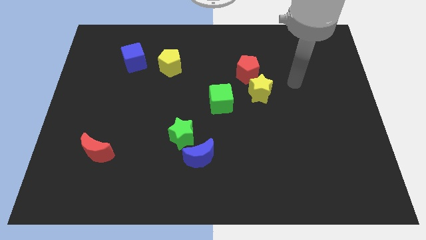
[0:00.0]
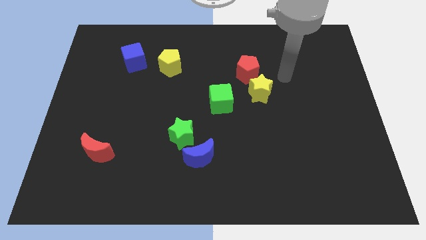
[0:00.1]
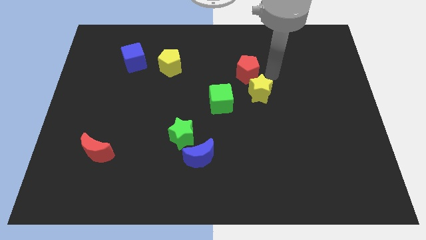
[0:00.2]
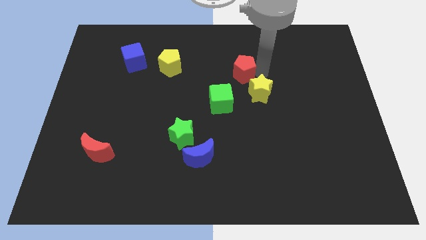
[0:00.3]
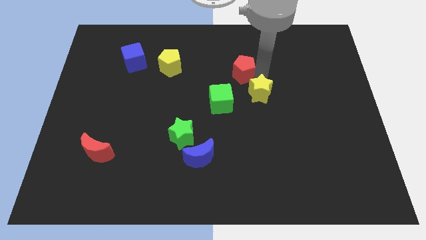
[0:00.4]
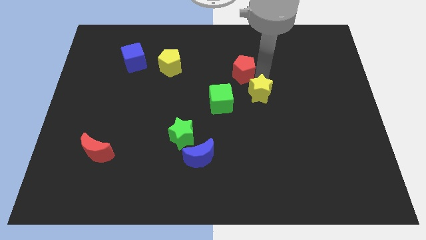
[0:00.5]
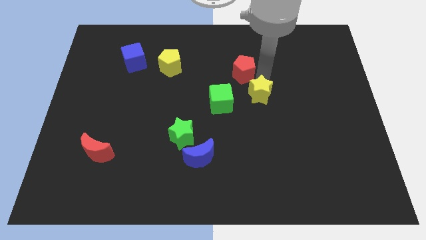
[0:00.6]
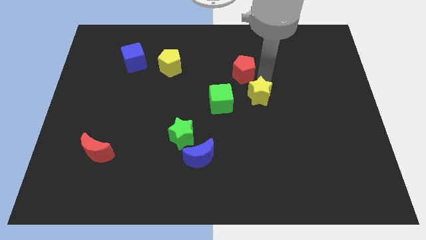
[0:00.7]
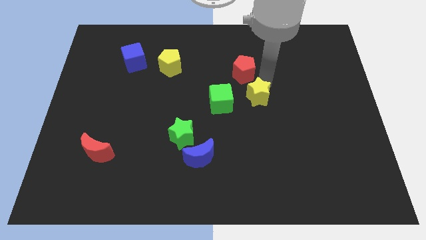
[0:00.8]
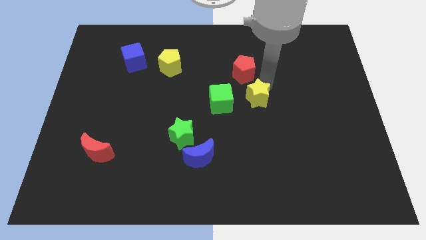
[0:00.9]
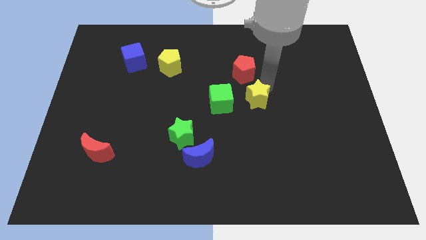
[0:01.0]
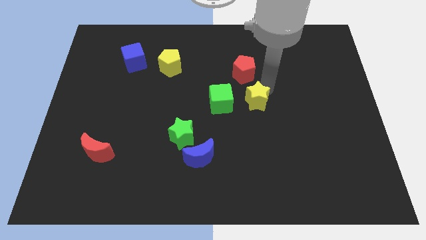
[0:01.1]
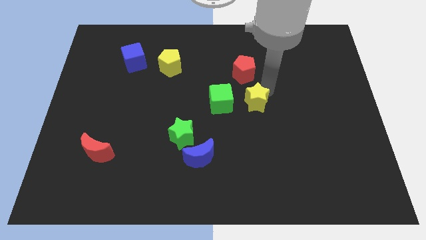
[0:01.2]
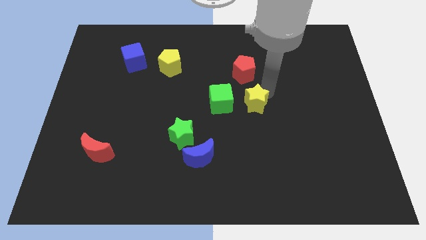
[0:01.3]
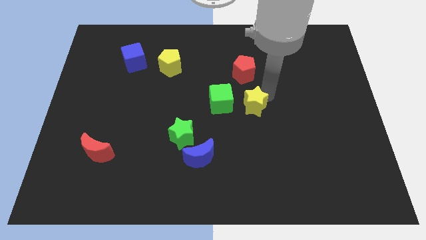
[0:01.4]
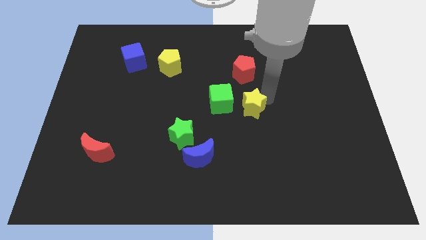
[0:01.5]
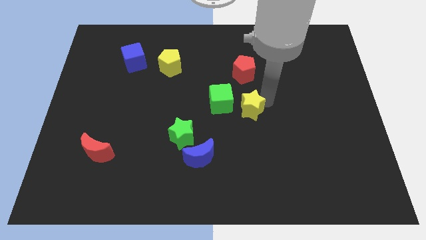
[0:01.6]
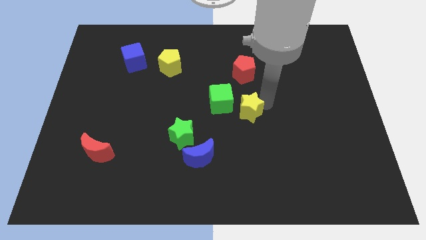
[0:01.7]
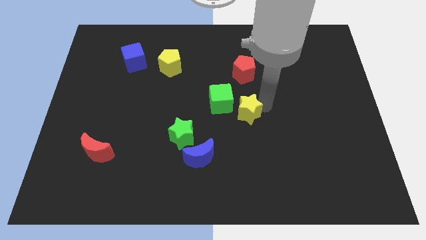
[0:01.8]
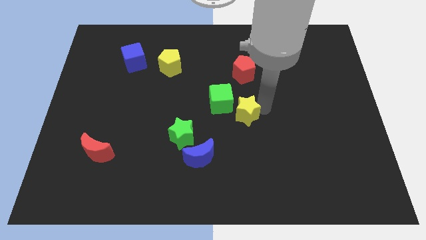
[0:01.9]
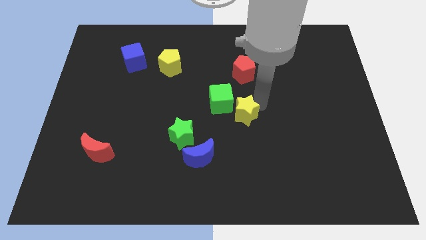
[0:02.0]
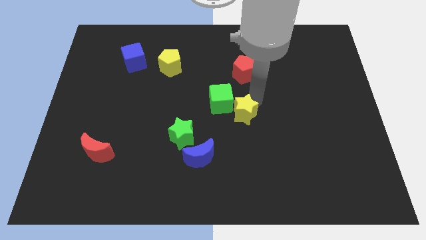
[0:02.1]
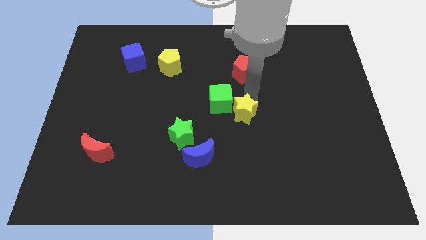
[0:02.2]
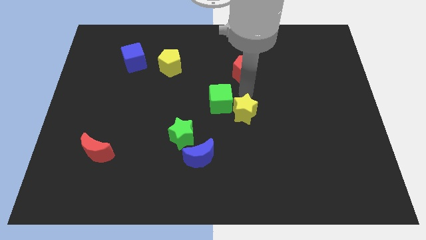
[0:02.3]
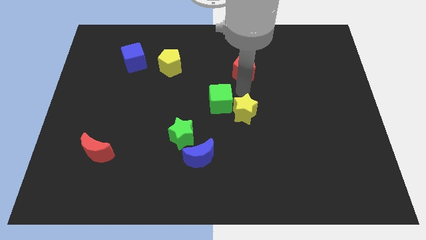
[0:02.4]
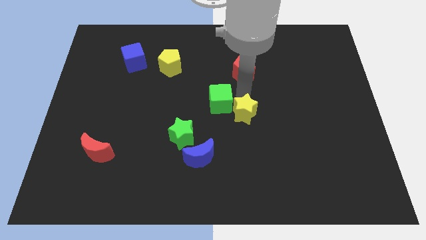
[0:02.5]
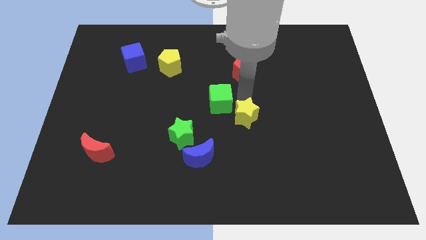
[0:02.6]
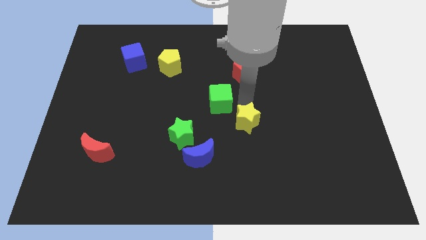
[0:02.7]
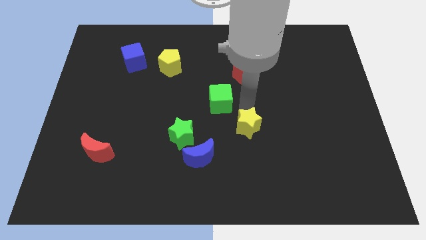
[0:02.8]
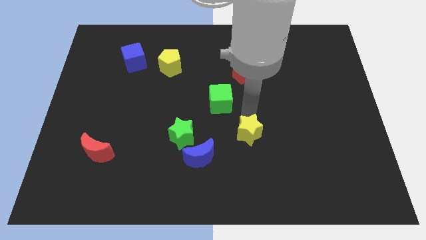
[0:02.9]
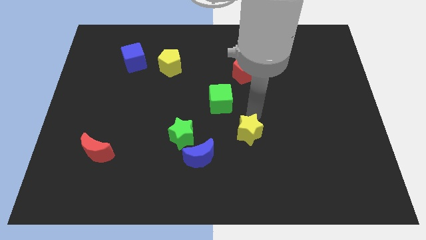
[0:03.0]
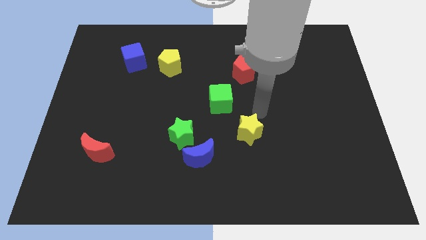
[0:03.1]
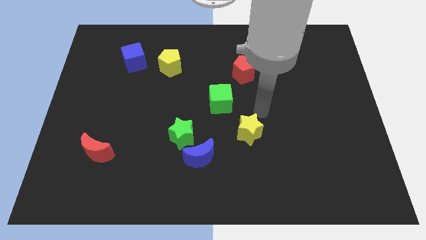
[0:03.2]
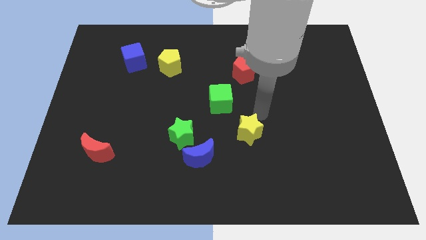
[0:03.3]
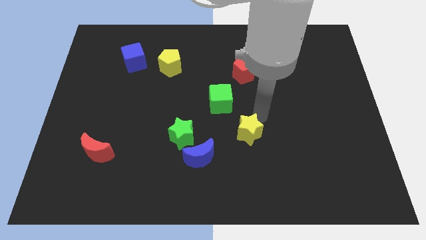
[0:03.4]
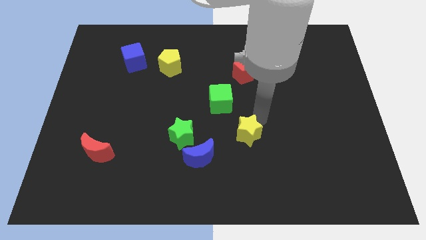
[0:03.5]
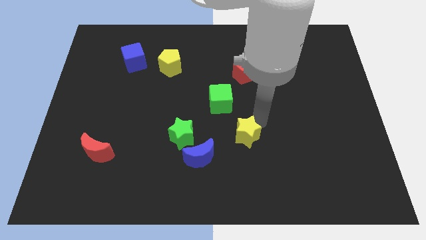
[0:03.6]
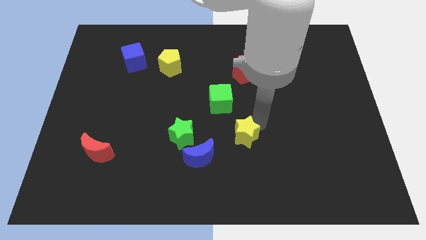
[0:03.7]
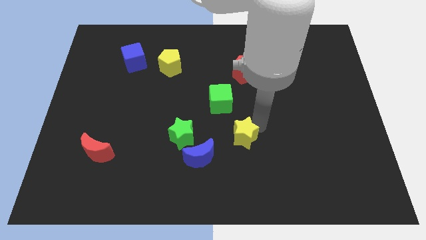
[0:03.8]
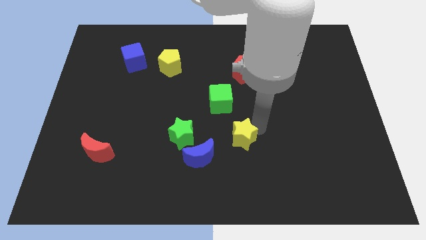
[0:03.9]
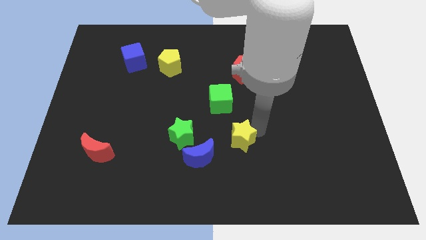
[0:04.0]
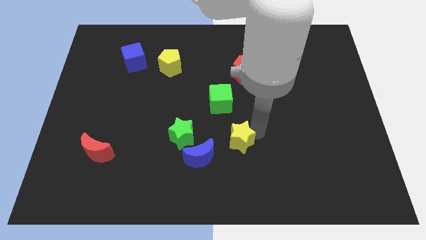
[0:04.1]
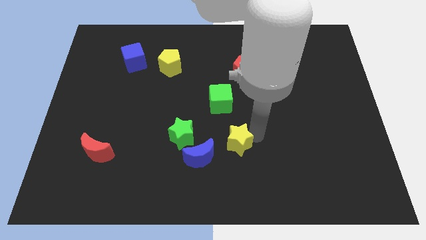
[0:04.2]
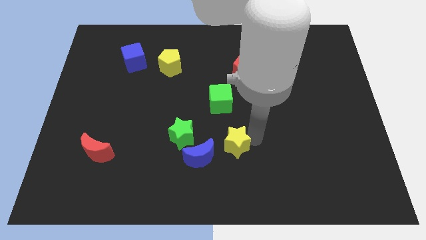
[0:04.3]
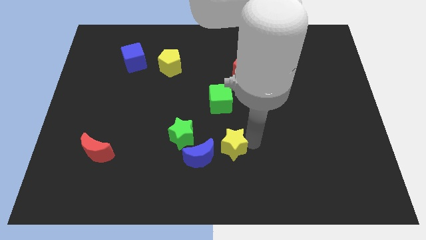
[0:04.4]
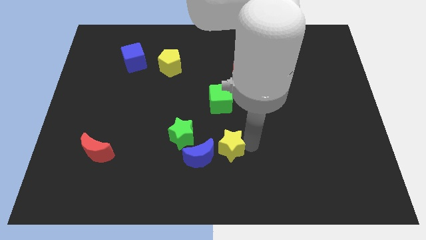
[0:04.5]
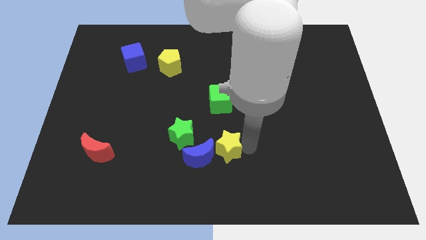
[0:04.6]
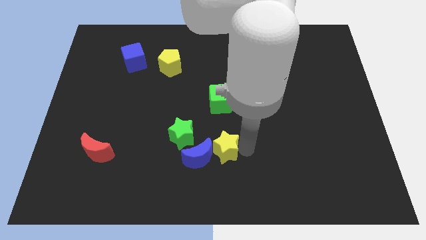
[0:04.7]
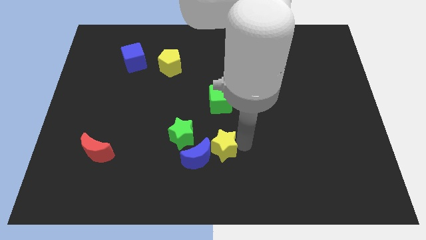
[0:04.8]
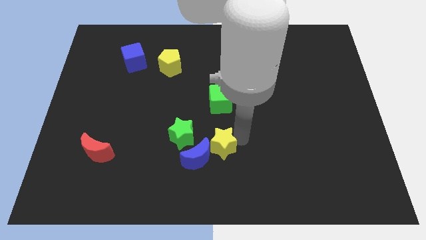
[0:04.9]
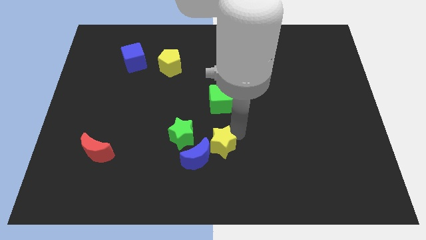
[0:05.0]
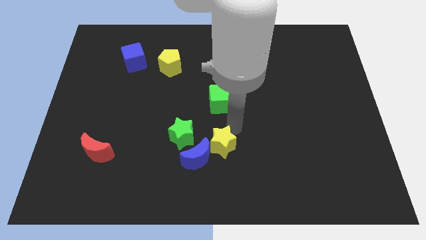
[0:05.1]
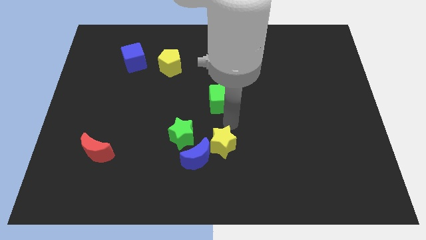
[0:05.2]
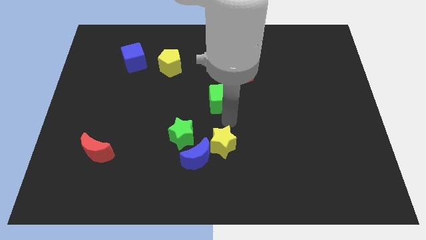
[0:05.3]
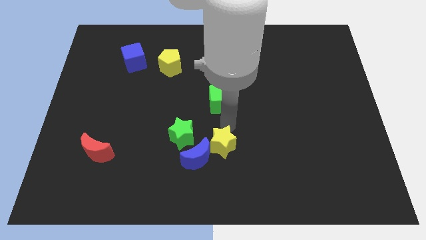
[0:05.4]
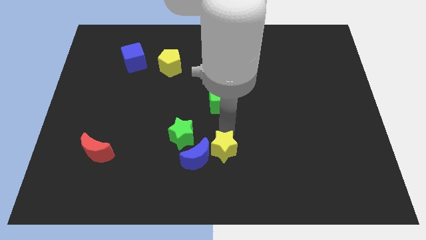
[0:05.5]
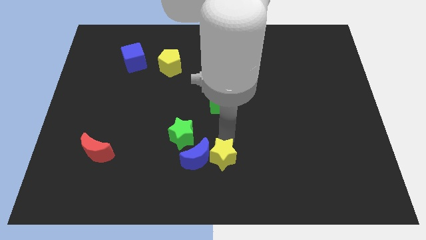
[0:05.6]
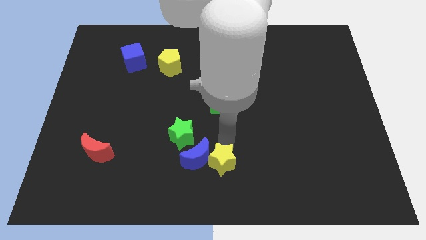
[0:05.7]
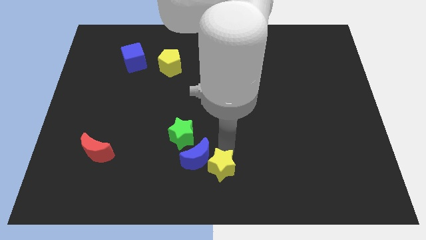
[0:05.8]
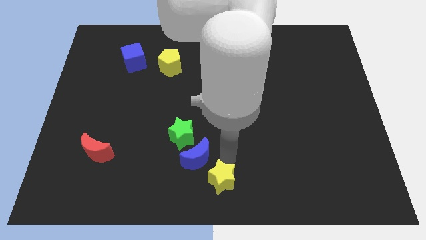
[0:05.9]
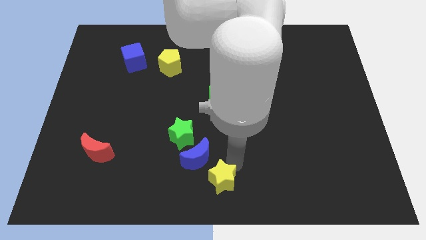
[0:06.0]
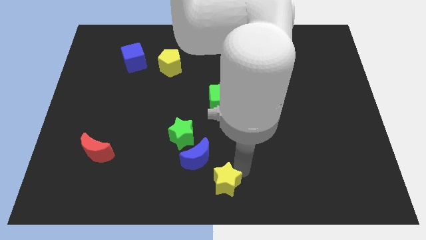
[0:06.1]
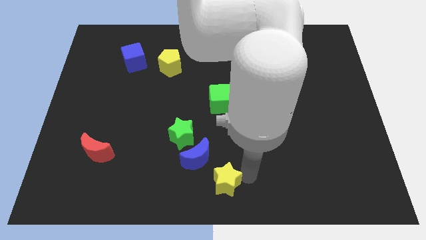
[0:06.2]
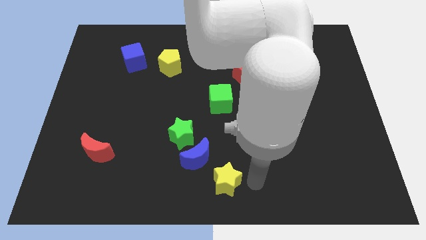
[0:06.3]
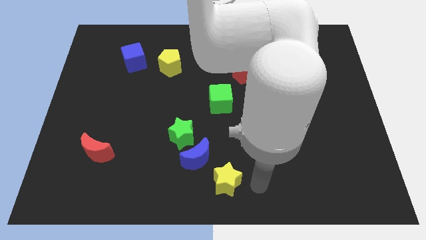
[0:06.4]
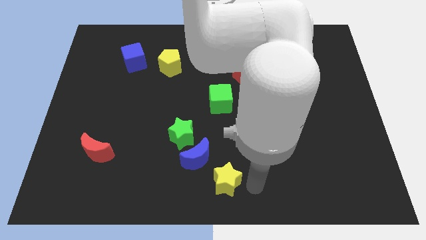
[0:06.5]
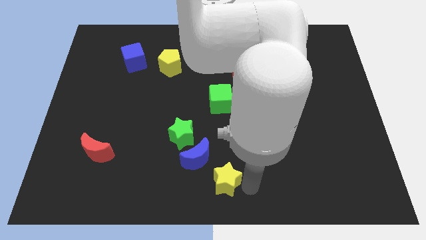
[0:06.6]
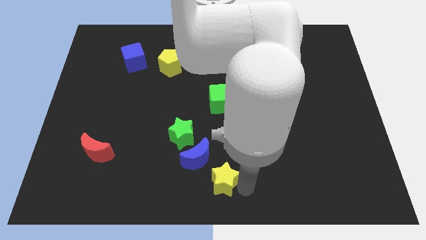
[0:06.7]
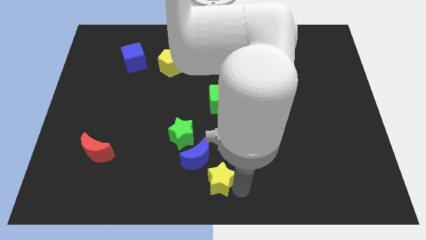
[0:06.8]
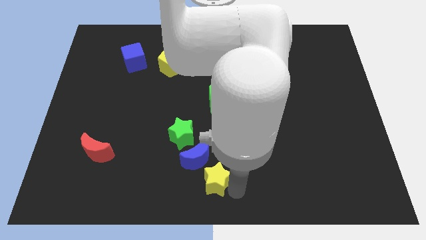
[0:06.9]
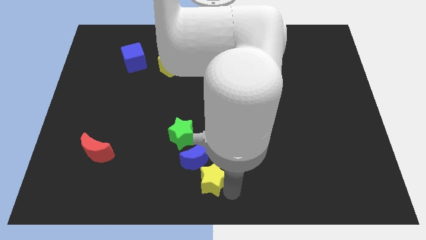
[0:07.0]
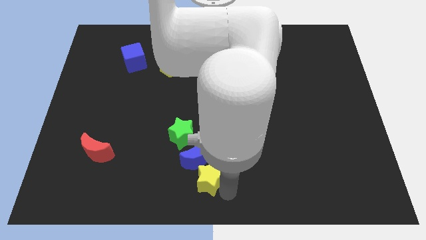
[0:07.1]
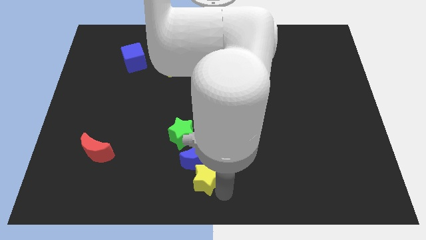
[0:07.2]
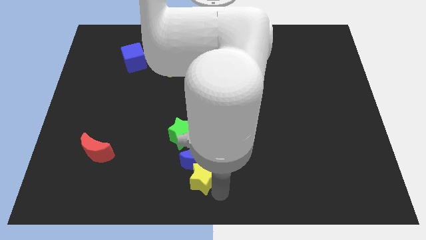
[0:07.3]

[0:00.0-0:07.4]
move the yellow star to the bottom side of the green star
